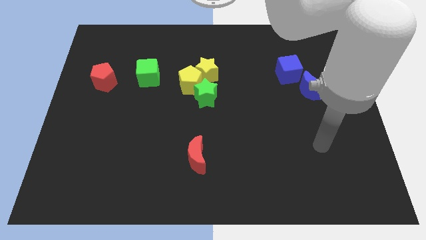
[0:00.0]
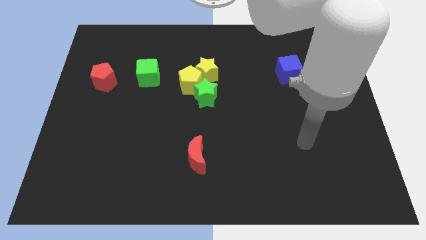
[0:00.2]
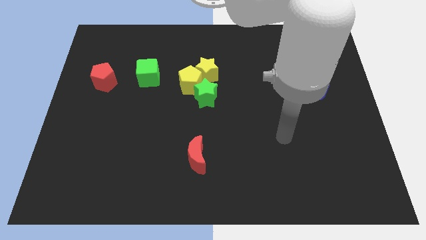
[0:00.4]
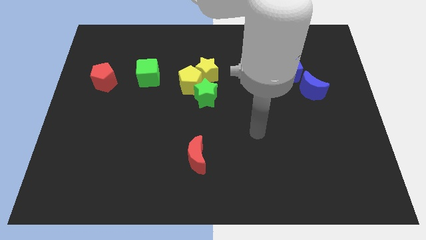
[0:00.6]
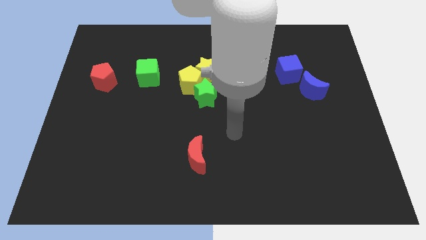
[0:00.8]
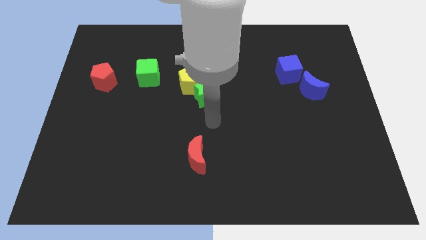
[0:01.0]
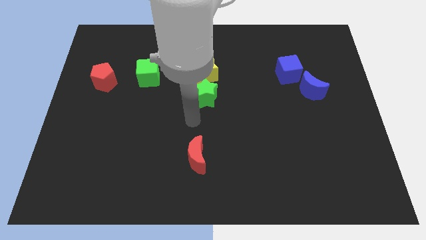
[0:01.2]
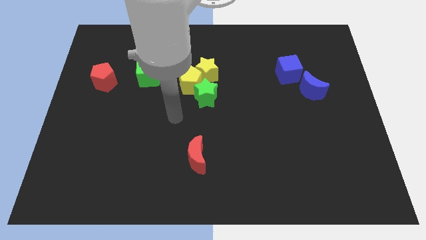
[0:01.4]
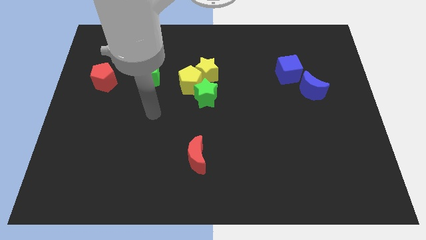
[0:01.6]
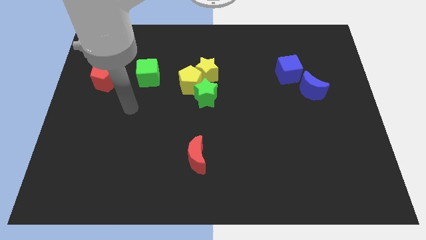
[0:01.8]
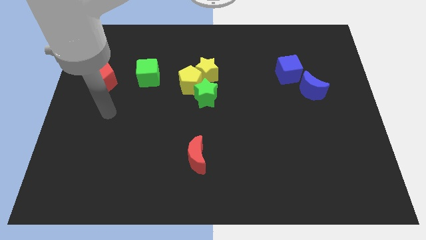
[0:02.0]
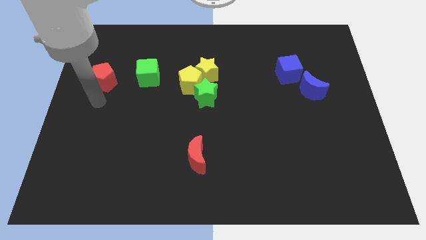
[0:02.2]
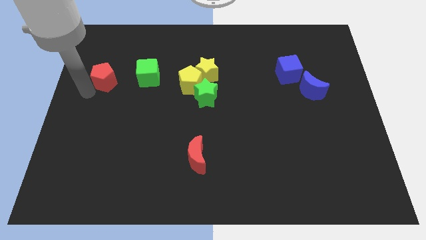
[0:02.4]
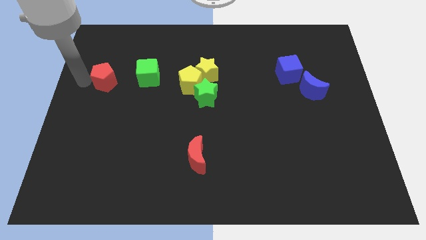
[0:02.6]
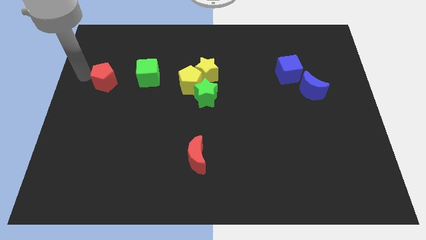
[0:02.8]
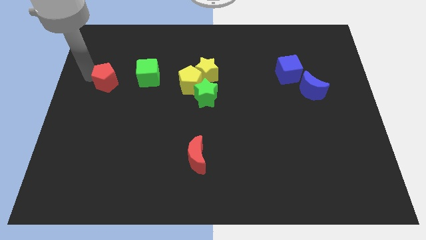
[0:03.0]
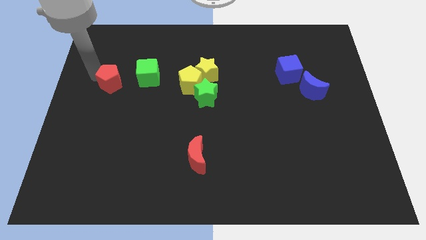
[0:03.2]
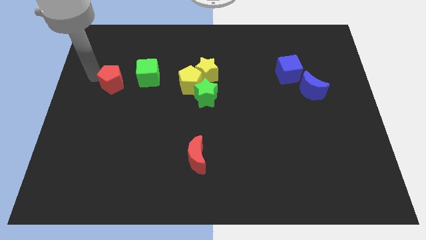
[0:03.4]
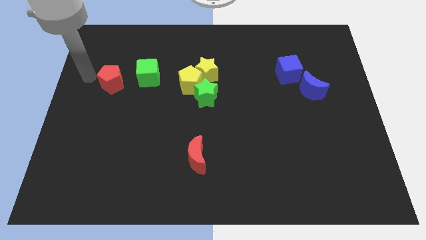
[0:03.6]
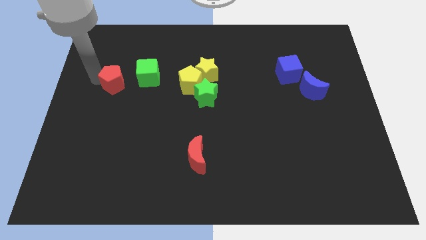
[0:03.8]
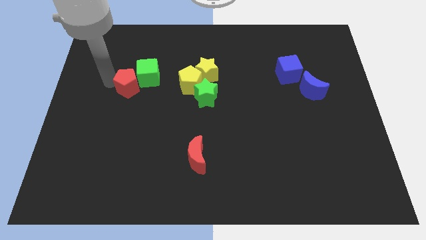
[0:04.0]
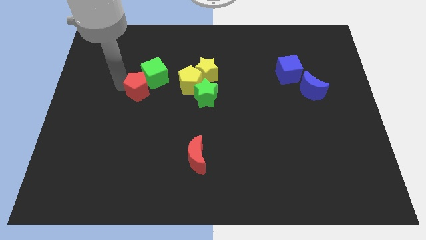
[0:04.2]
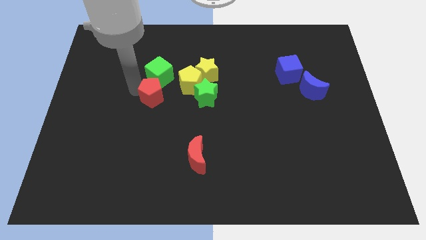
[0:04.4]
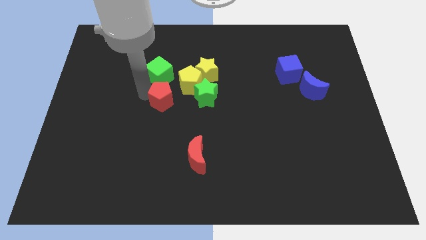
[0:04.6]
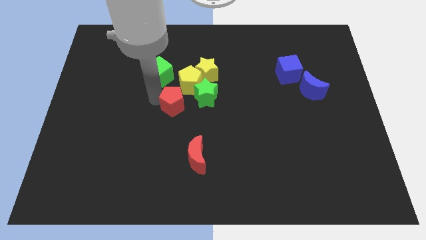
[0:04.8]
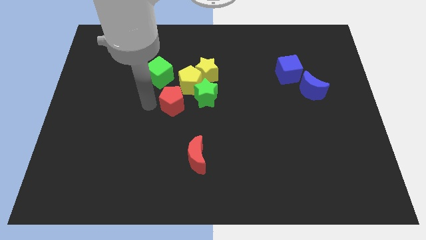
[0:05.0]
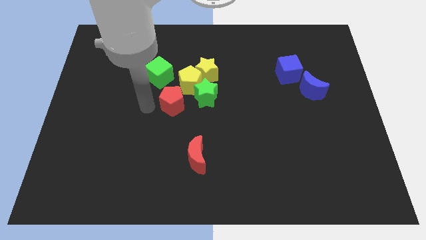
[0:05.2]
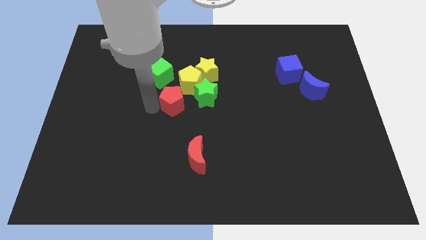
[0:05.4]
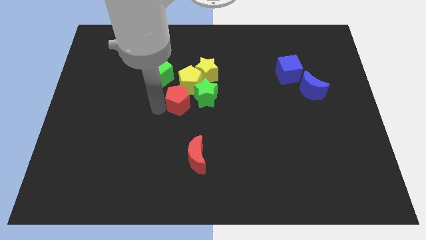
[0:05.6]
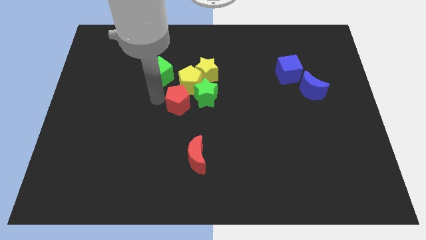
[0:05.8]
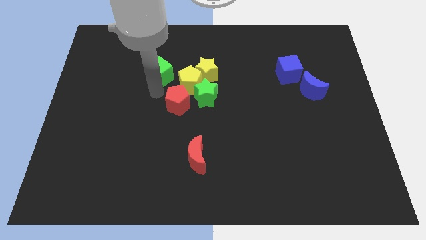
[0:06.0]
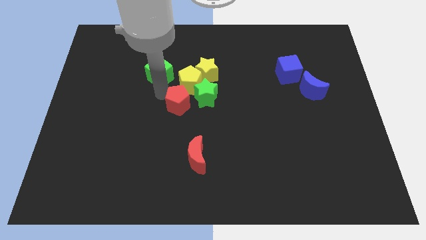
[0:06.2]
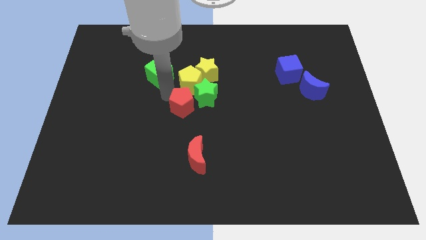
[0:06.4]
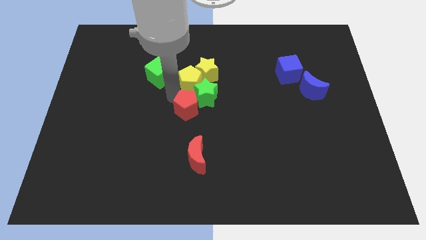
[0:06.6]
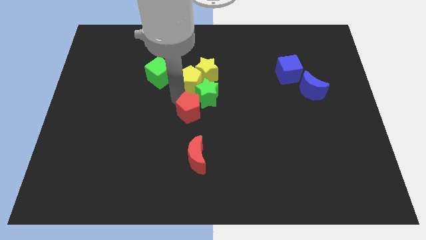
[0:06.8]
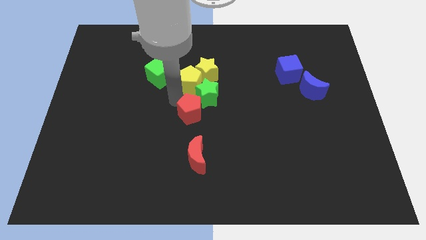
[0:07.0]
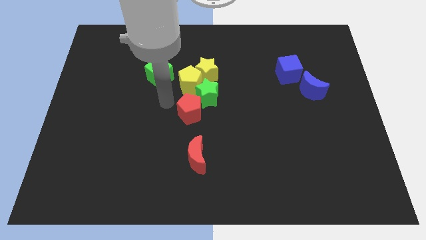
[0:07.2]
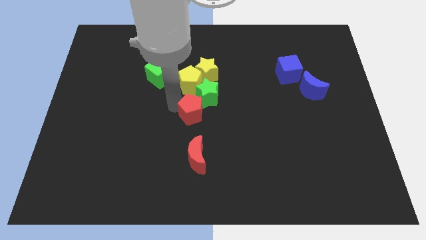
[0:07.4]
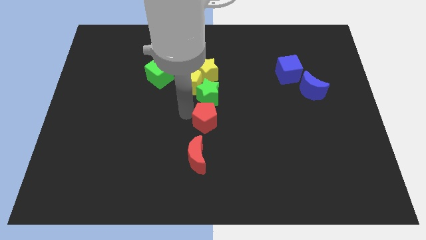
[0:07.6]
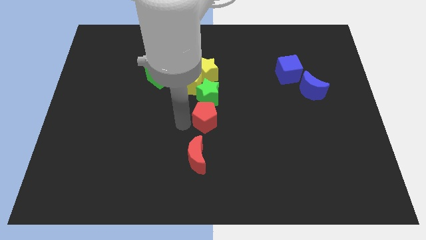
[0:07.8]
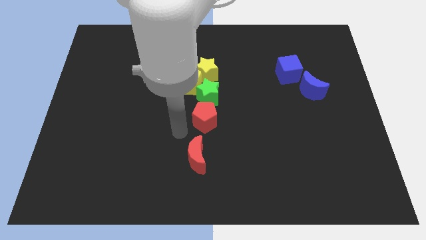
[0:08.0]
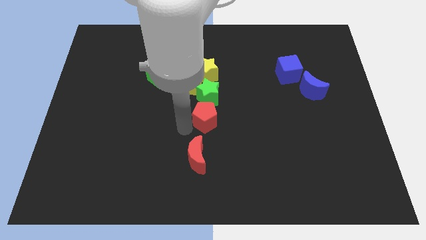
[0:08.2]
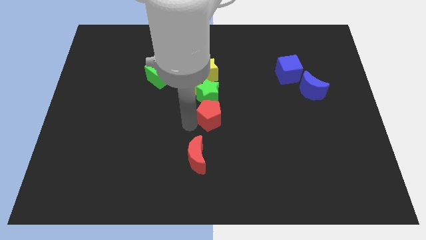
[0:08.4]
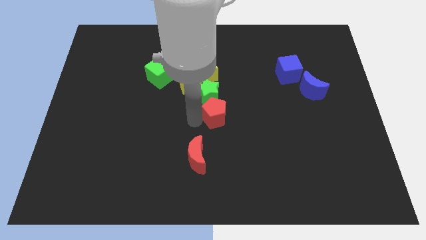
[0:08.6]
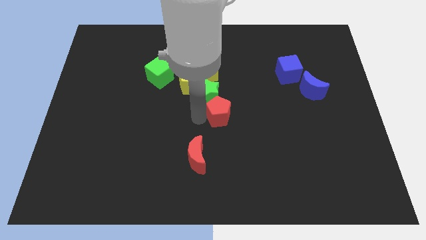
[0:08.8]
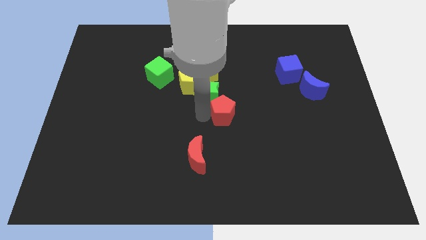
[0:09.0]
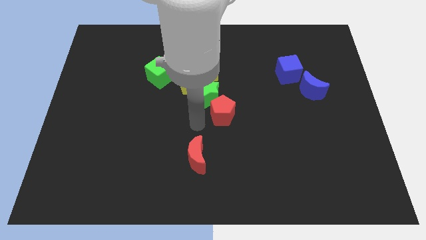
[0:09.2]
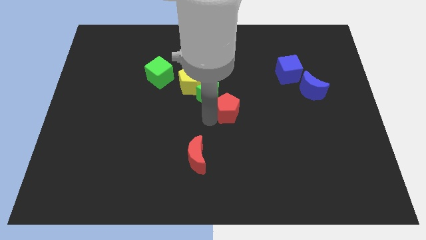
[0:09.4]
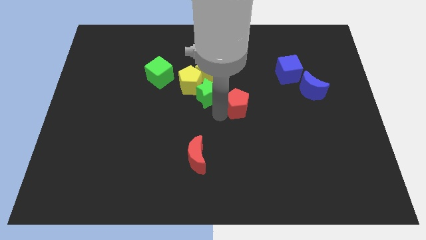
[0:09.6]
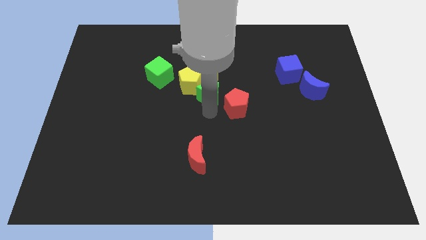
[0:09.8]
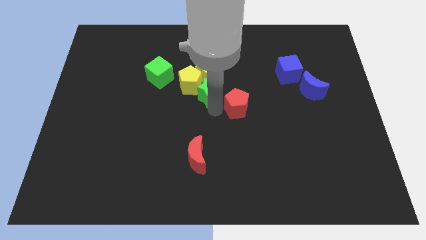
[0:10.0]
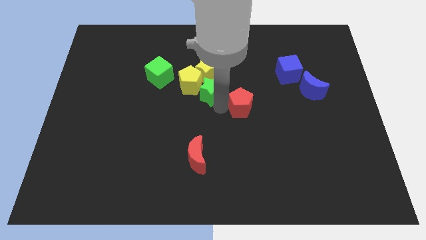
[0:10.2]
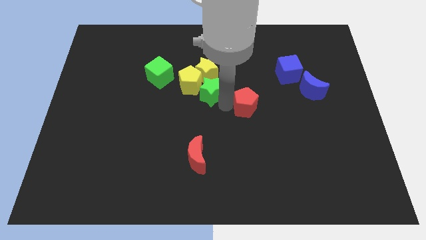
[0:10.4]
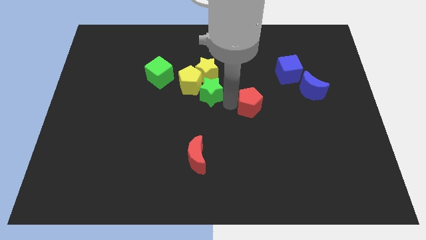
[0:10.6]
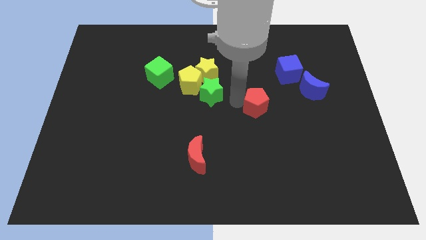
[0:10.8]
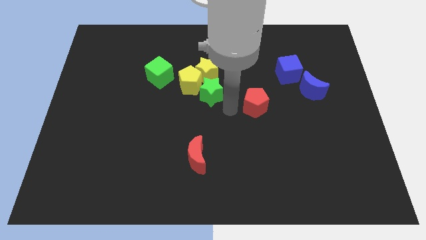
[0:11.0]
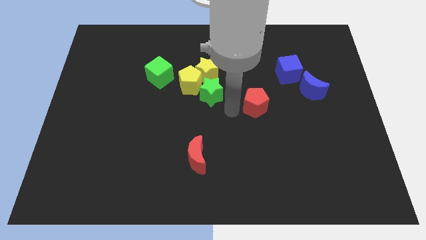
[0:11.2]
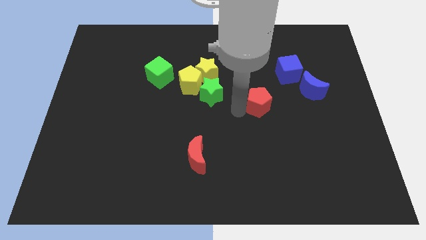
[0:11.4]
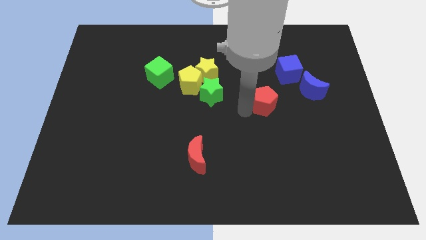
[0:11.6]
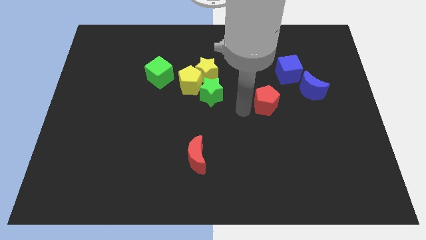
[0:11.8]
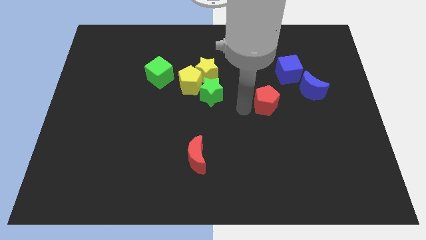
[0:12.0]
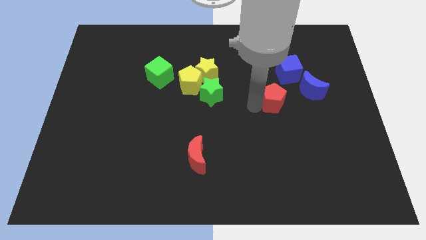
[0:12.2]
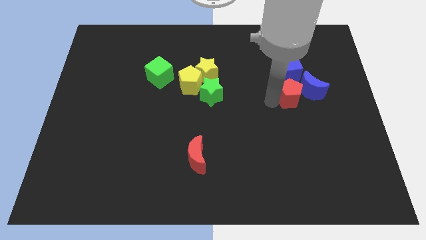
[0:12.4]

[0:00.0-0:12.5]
push the red pentagon to the blue moon

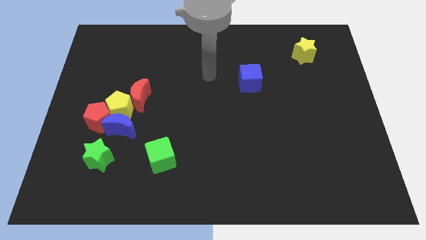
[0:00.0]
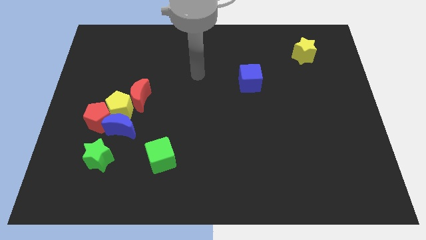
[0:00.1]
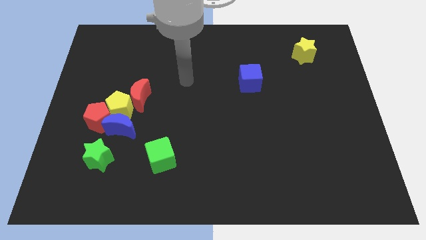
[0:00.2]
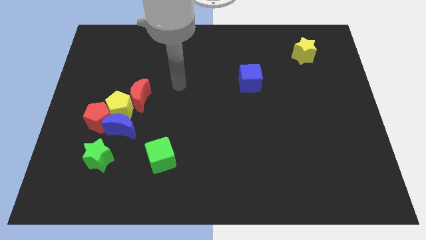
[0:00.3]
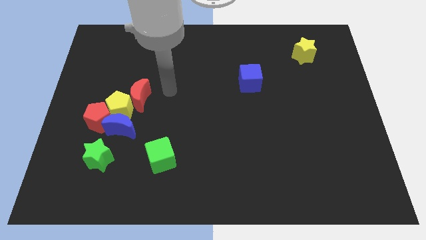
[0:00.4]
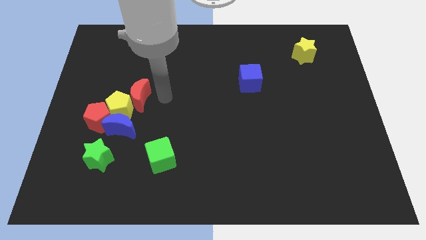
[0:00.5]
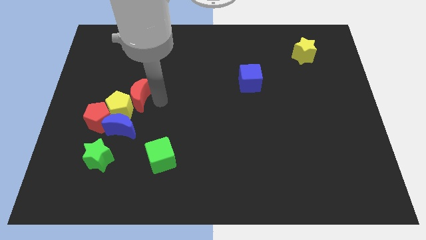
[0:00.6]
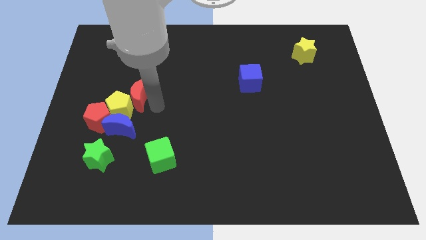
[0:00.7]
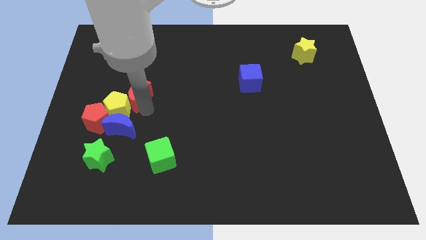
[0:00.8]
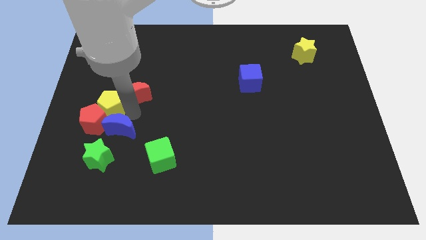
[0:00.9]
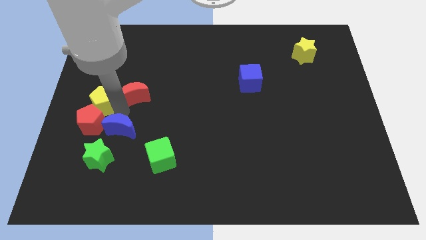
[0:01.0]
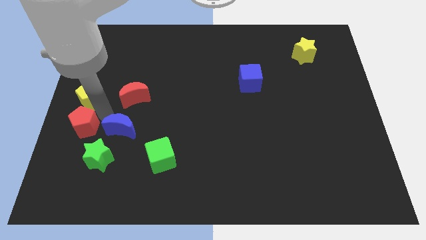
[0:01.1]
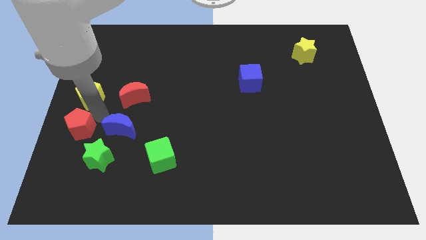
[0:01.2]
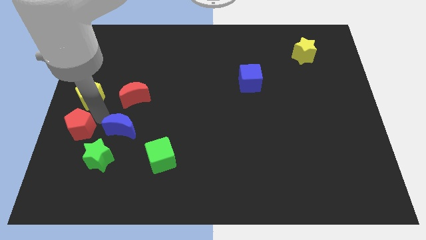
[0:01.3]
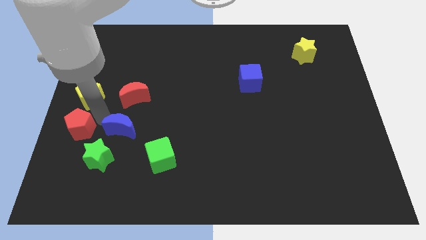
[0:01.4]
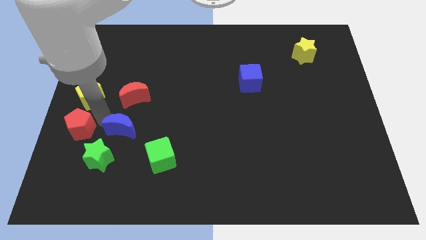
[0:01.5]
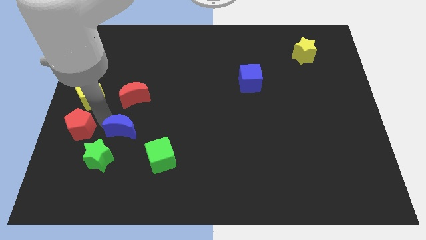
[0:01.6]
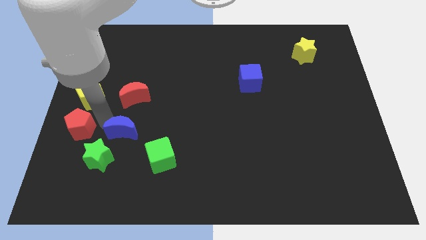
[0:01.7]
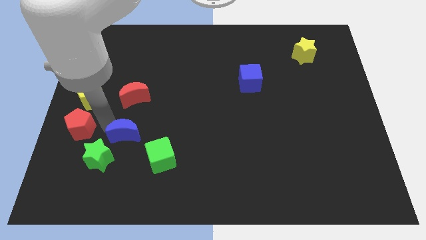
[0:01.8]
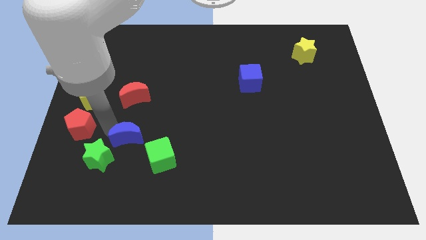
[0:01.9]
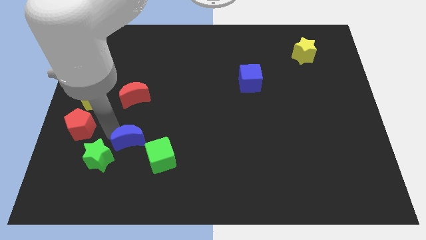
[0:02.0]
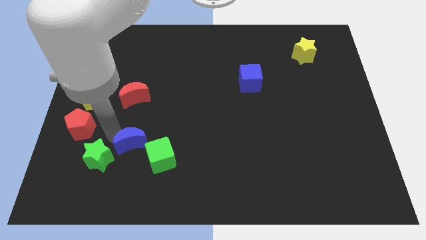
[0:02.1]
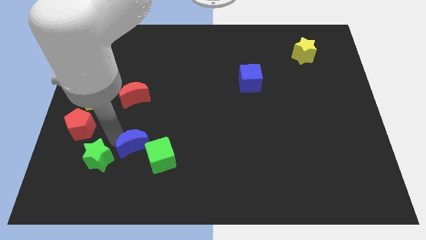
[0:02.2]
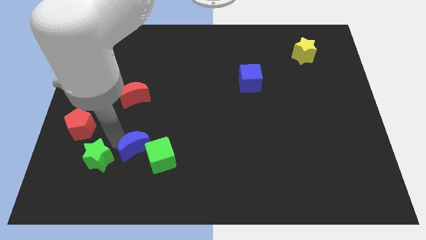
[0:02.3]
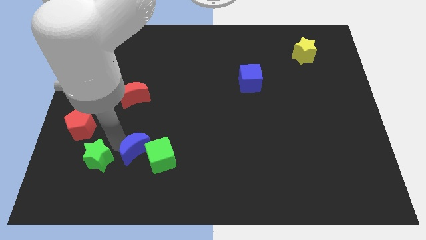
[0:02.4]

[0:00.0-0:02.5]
move the blue moon towards the green cube
